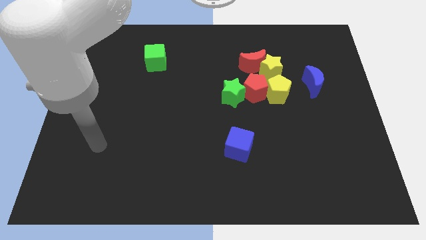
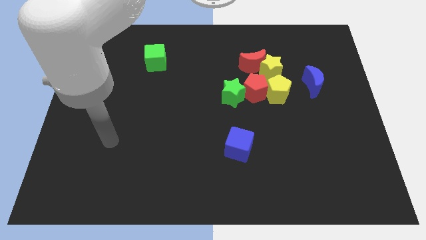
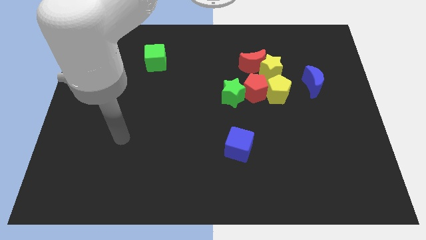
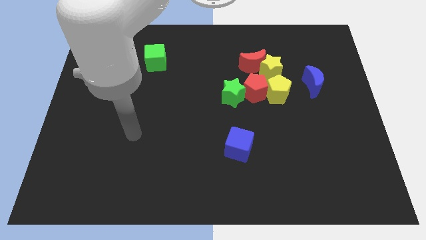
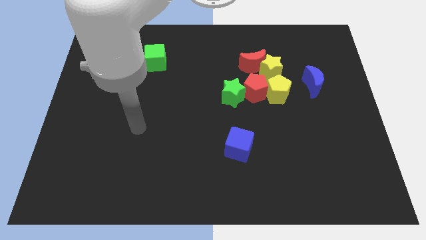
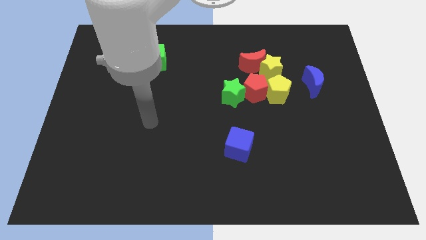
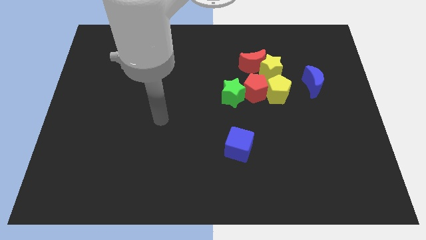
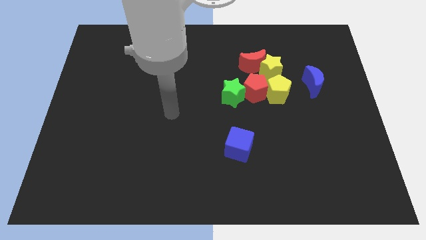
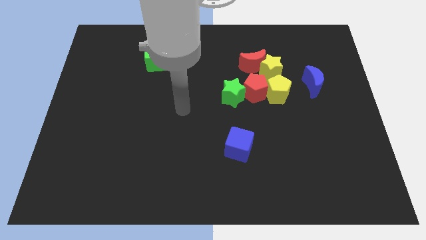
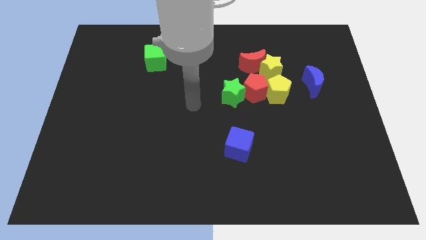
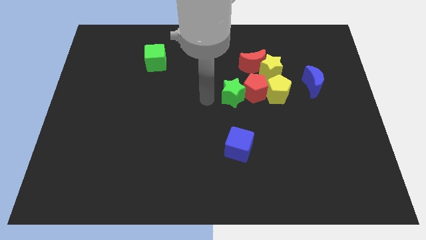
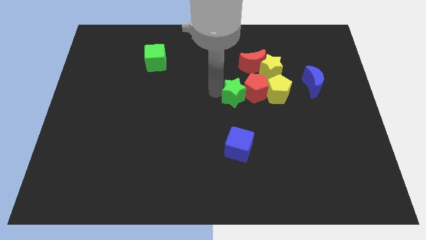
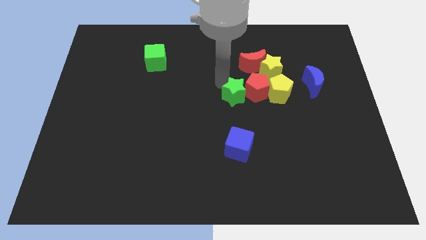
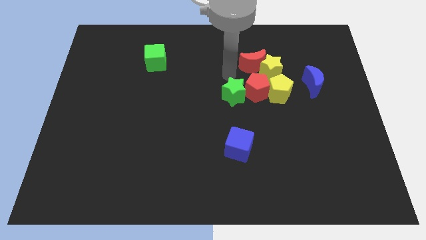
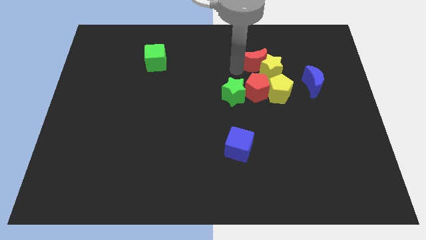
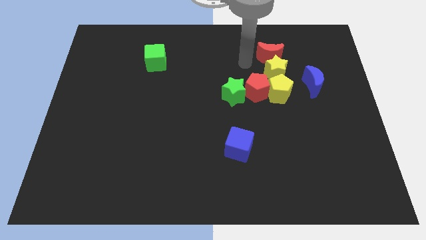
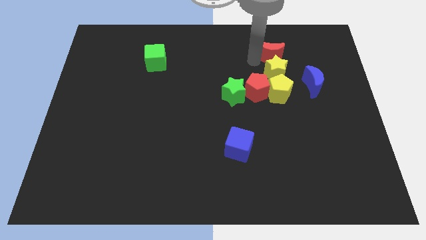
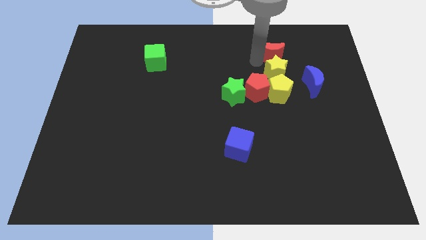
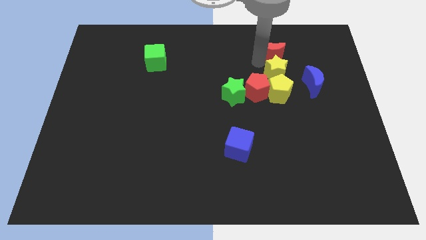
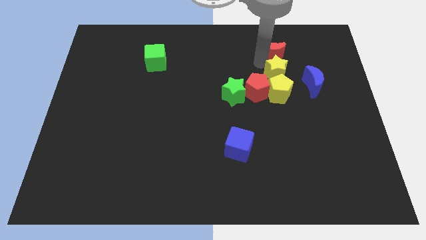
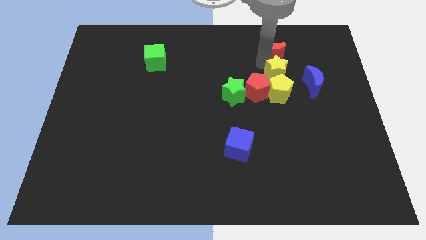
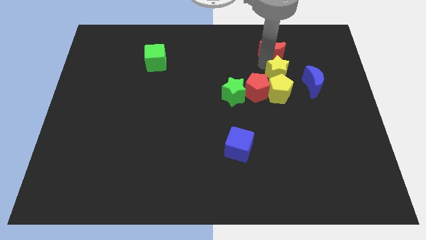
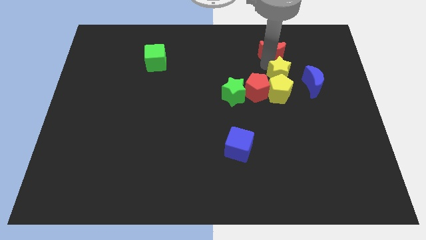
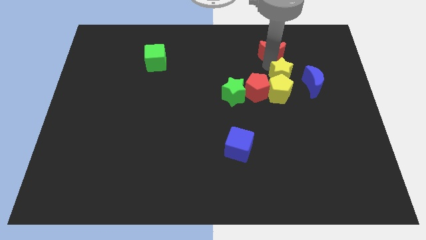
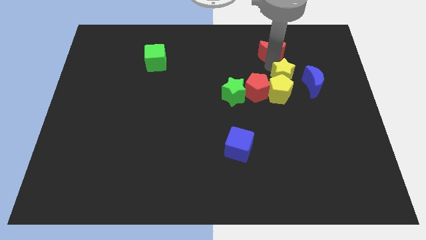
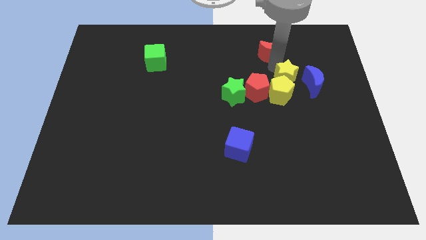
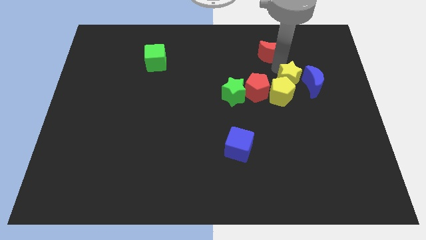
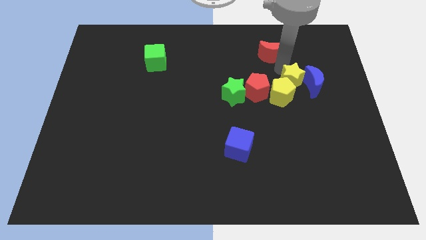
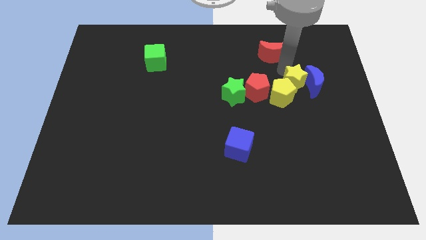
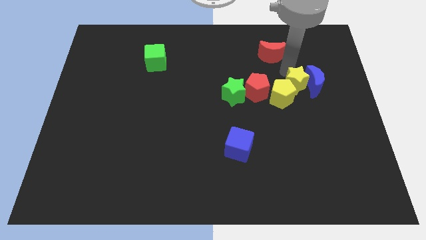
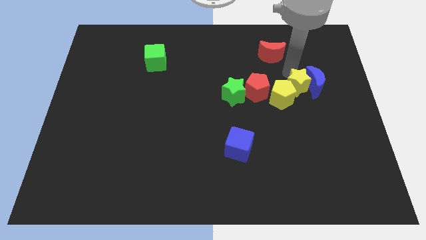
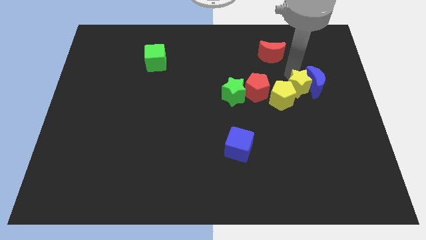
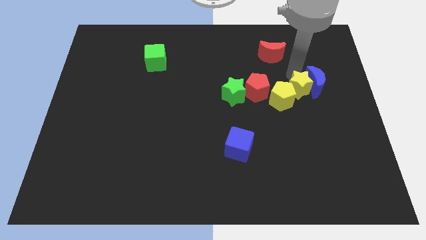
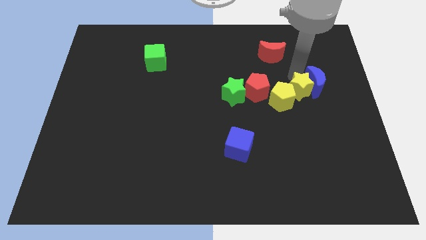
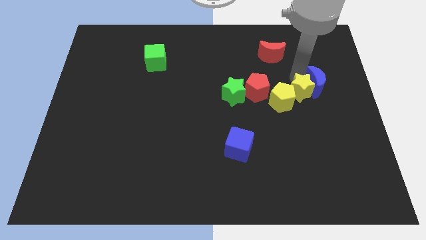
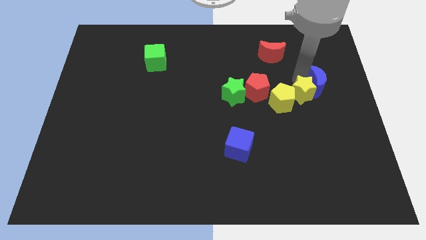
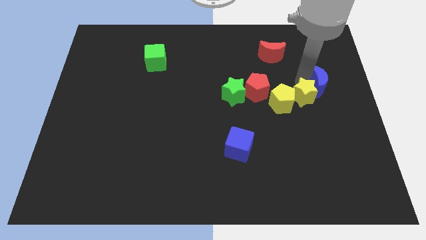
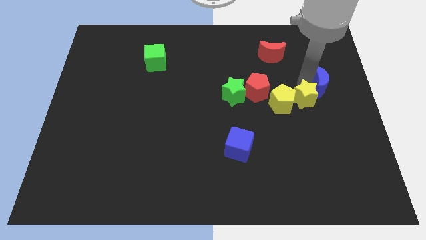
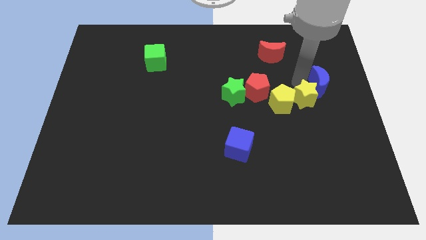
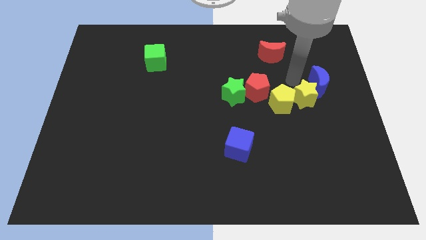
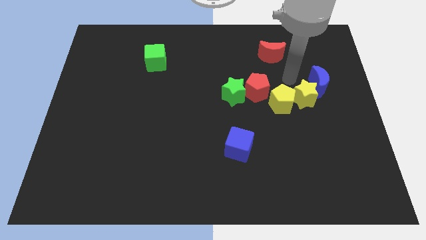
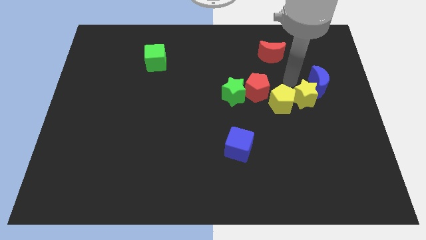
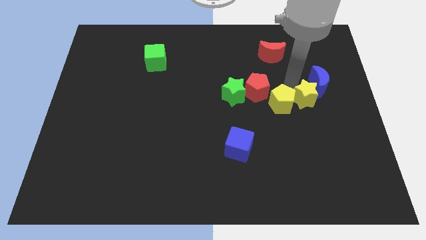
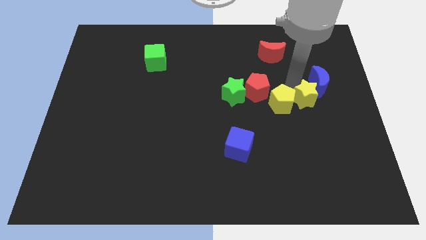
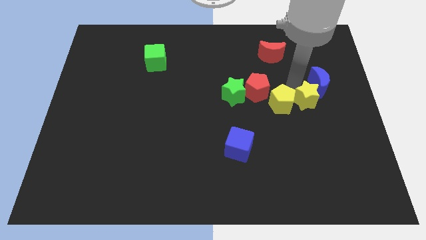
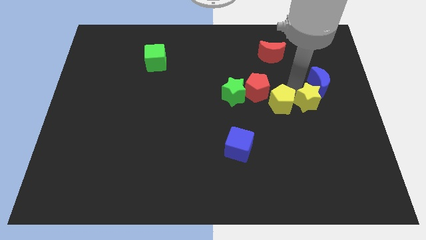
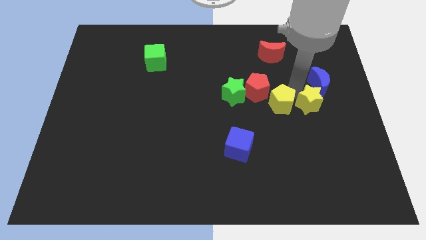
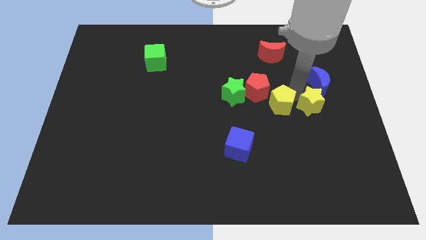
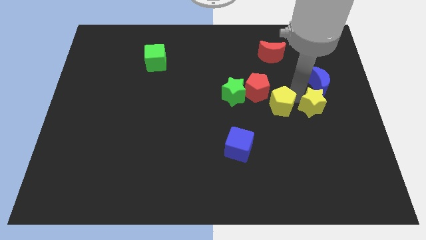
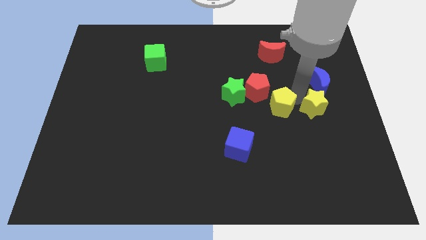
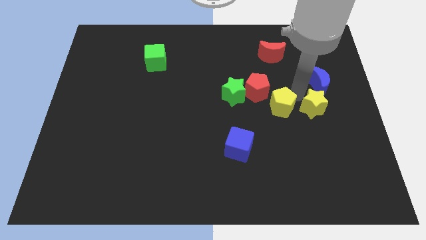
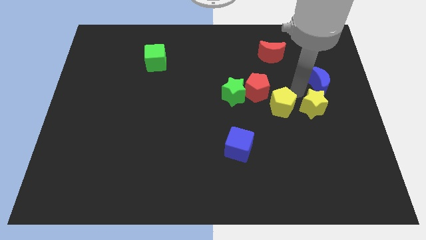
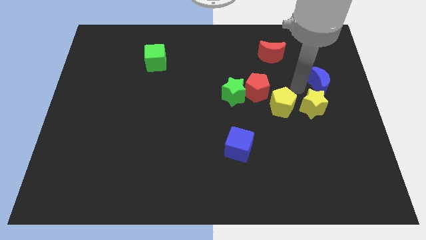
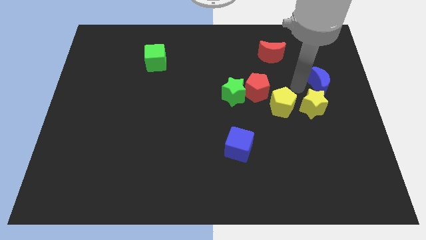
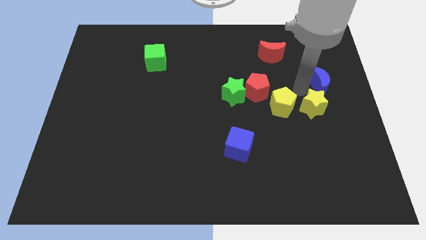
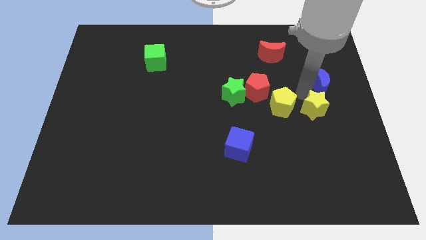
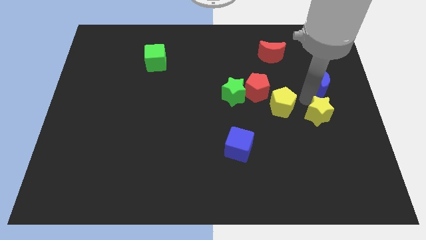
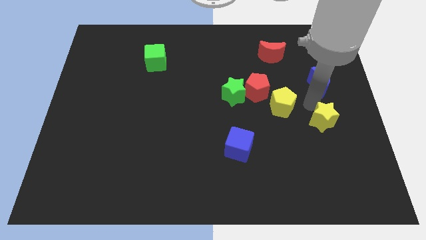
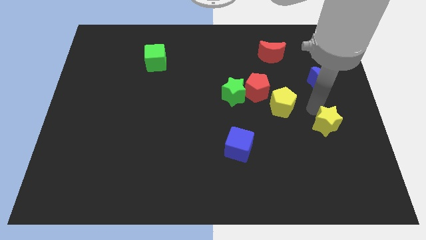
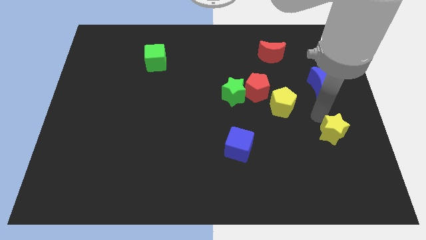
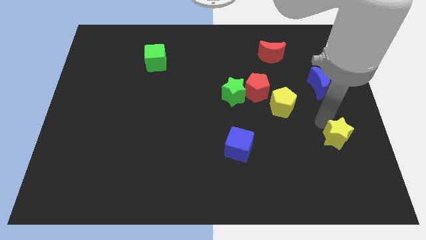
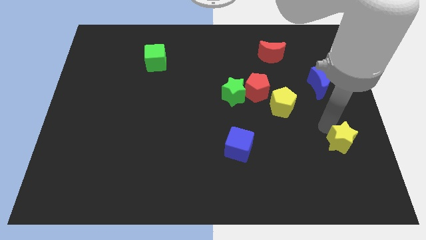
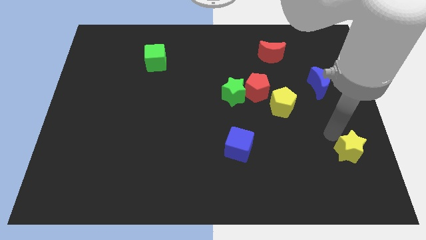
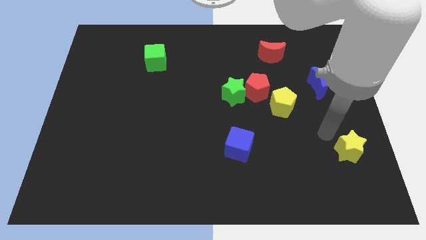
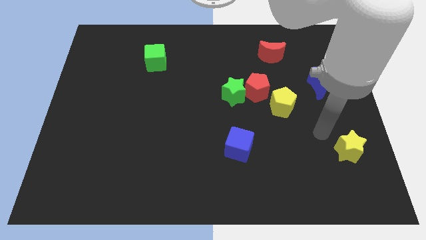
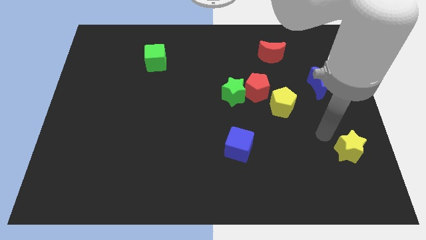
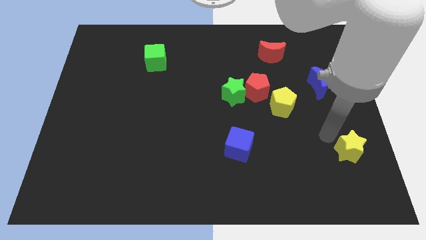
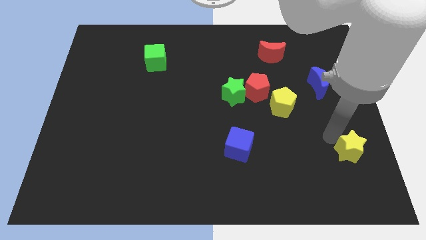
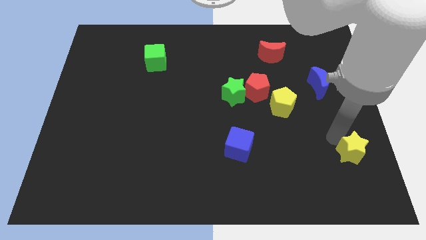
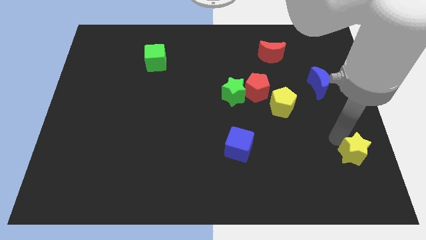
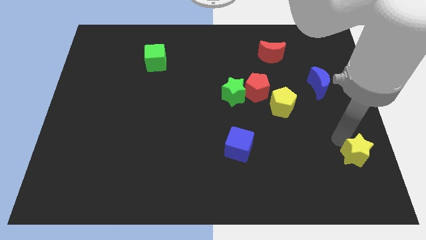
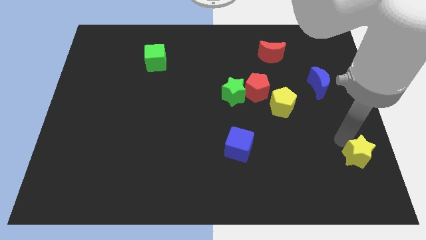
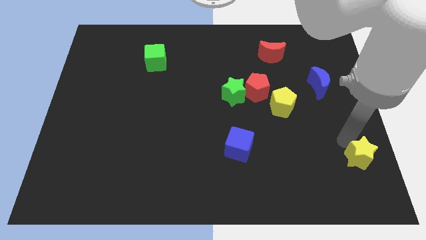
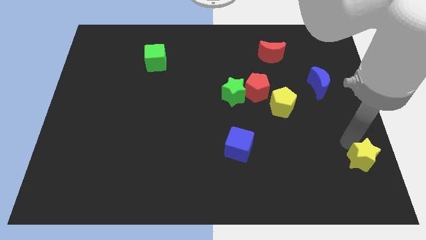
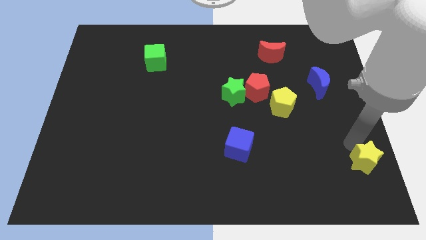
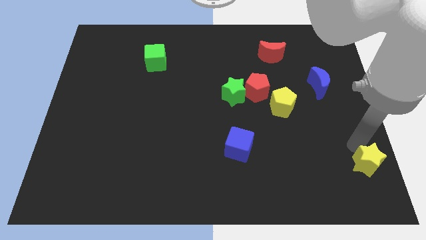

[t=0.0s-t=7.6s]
put the yellow star to the lower right corner
